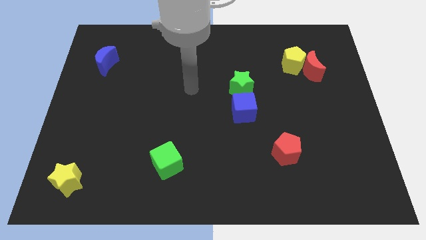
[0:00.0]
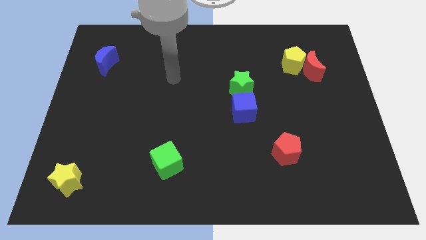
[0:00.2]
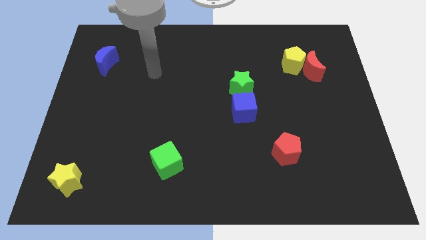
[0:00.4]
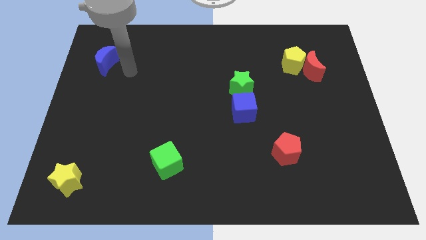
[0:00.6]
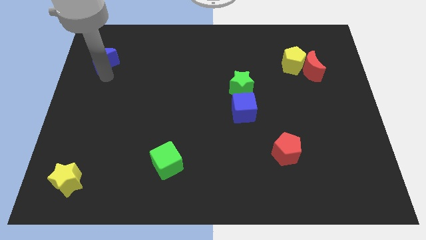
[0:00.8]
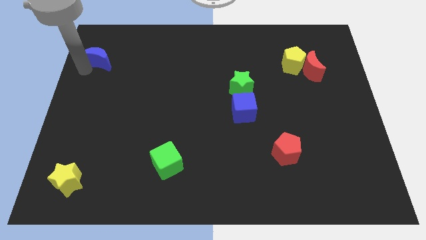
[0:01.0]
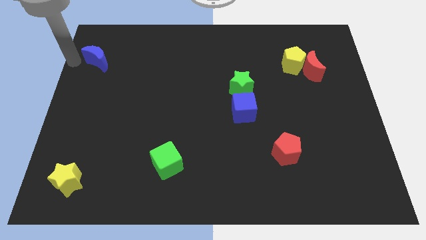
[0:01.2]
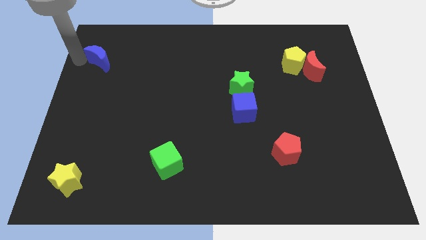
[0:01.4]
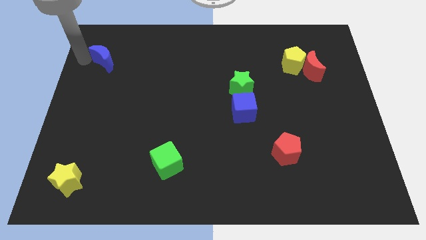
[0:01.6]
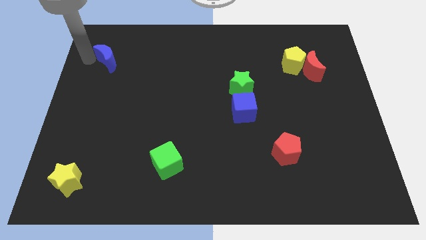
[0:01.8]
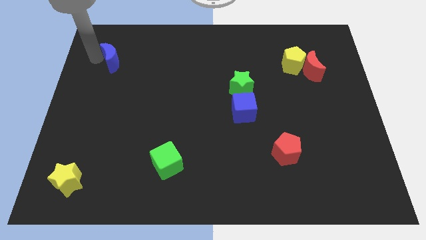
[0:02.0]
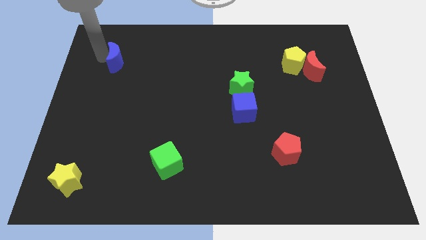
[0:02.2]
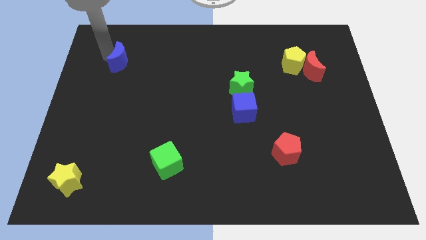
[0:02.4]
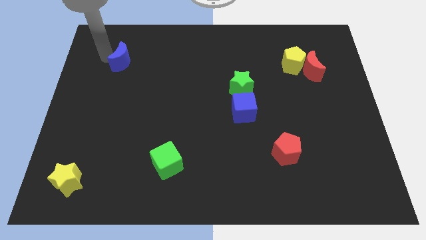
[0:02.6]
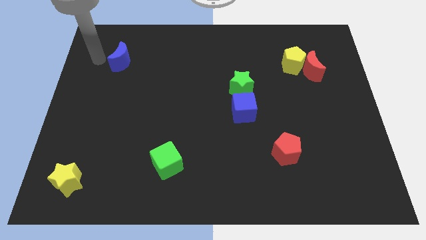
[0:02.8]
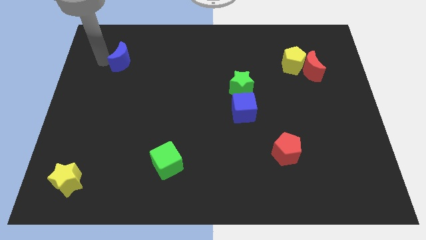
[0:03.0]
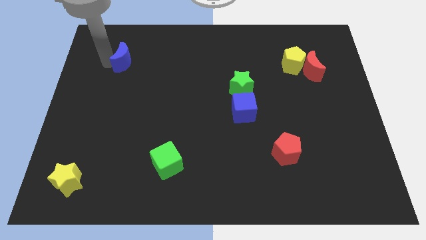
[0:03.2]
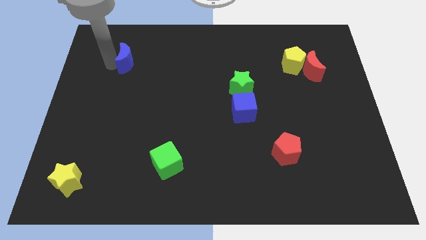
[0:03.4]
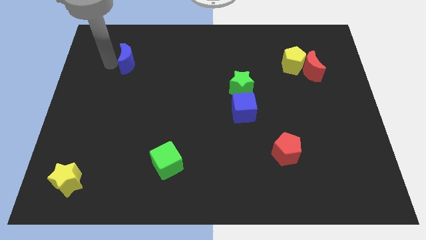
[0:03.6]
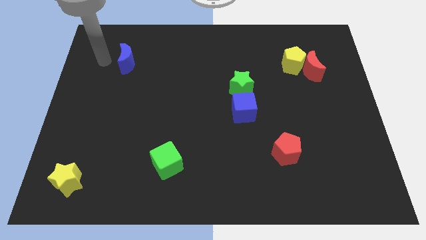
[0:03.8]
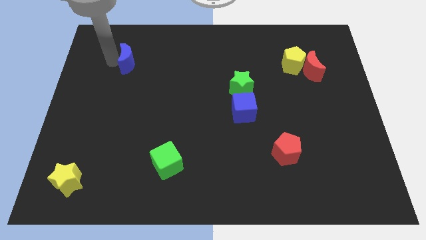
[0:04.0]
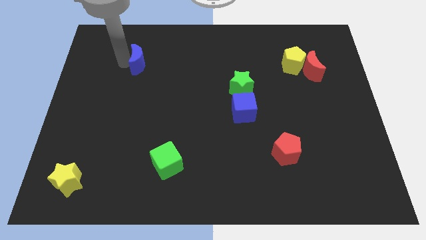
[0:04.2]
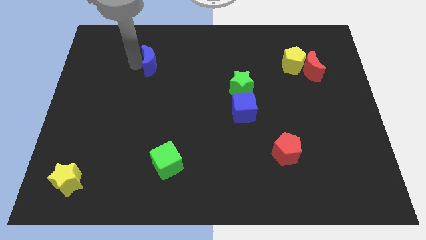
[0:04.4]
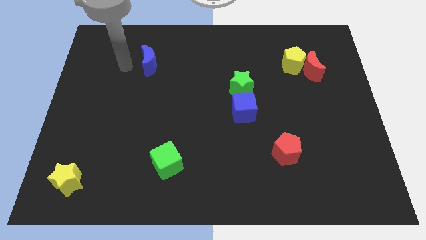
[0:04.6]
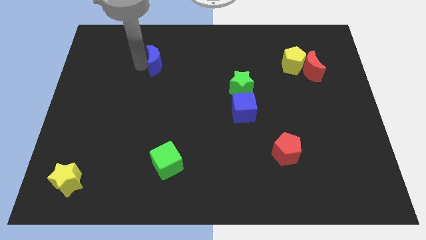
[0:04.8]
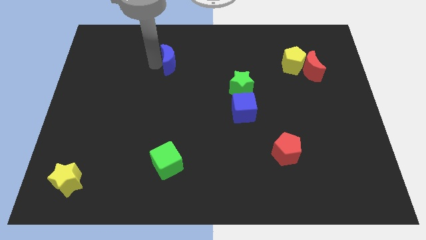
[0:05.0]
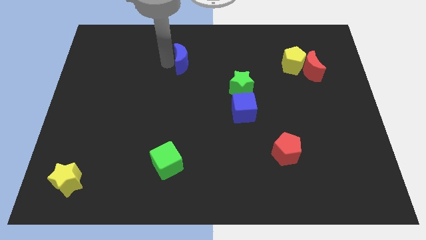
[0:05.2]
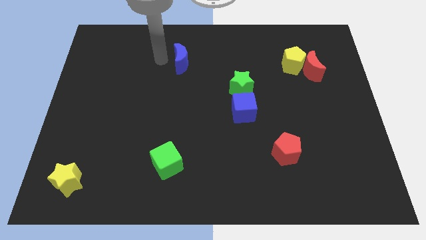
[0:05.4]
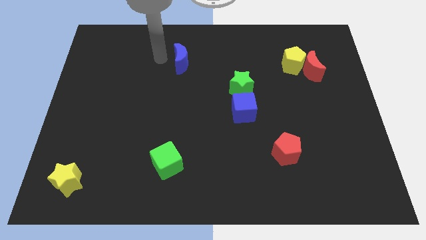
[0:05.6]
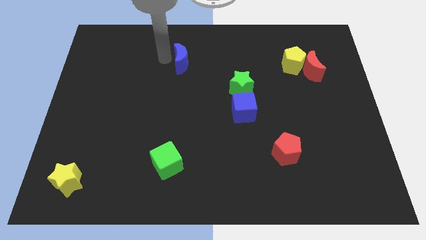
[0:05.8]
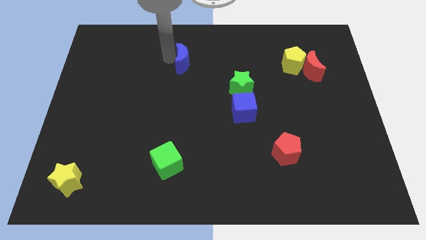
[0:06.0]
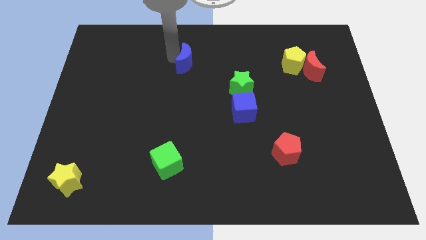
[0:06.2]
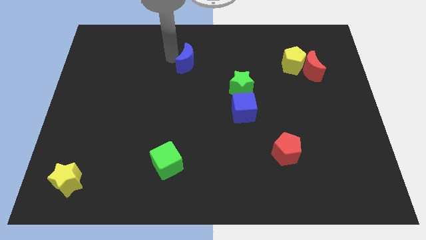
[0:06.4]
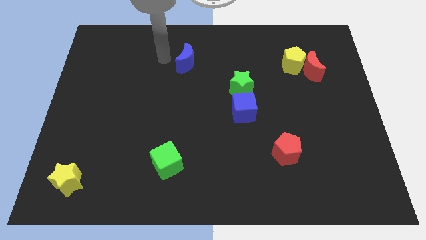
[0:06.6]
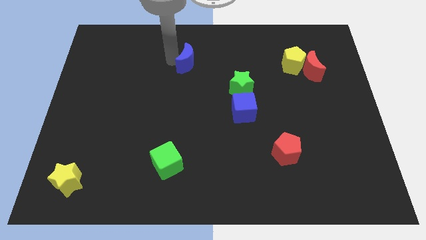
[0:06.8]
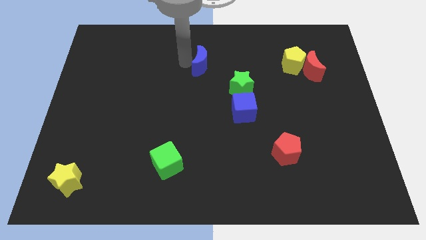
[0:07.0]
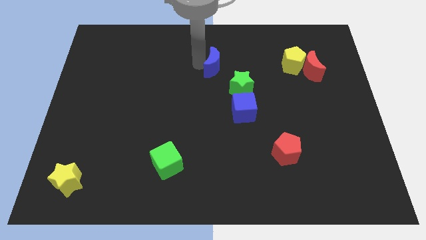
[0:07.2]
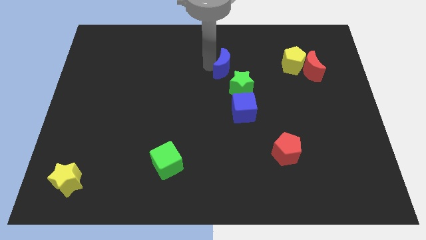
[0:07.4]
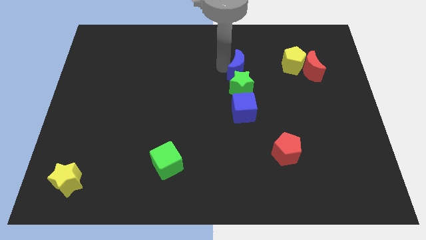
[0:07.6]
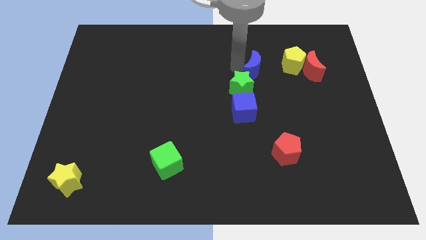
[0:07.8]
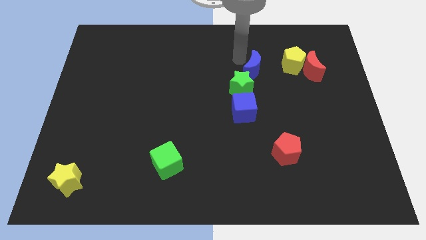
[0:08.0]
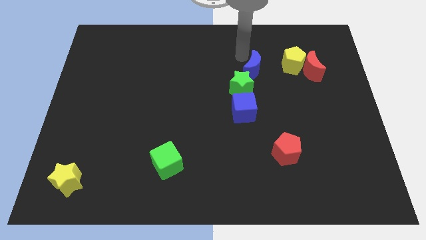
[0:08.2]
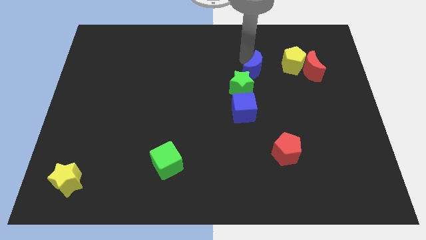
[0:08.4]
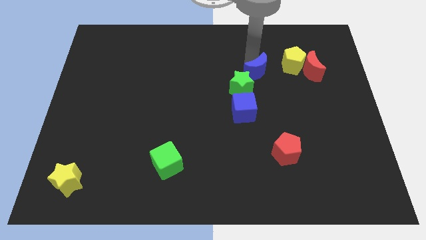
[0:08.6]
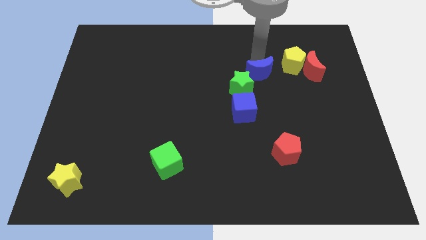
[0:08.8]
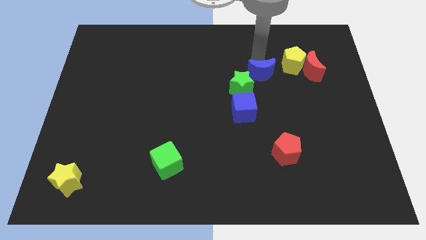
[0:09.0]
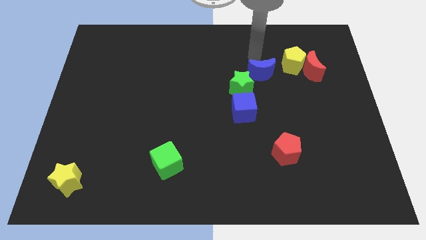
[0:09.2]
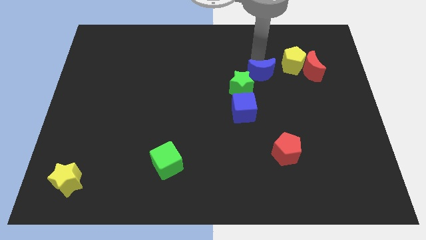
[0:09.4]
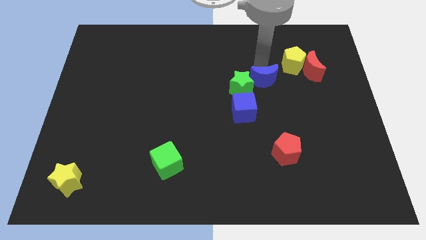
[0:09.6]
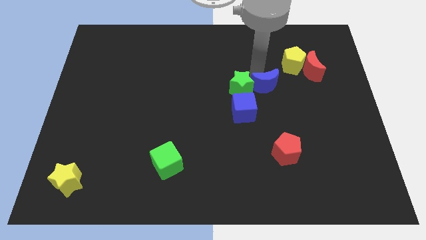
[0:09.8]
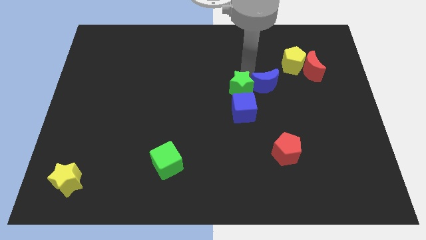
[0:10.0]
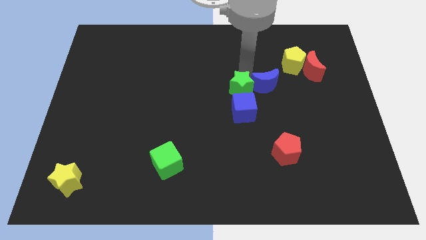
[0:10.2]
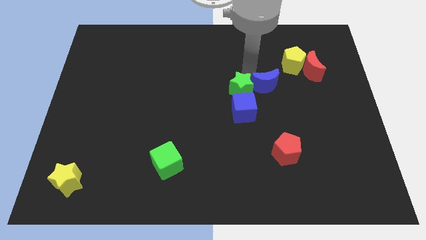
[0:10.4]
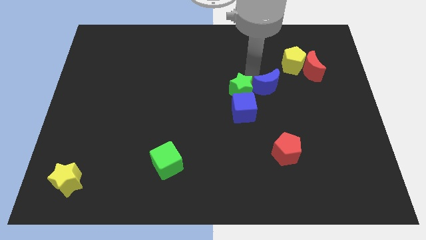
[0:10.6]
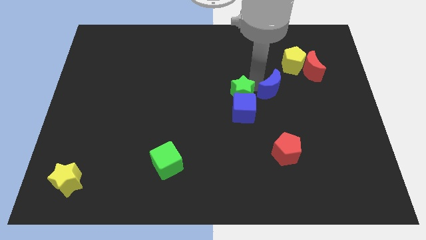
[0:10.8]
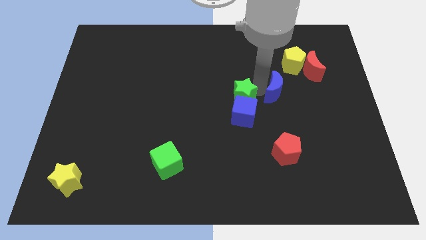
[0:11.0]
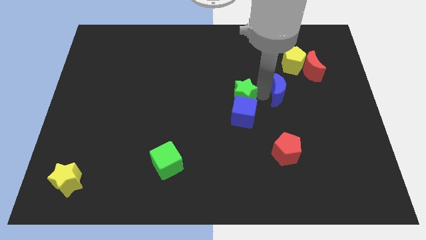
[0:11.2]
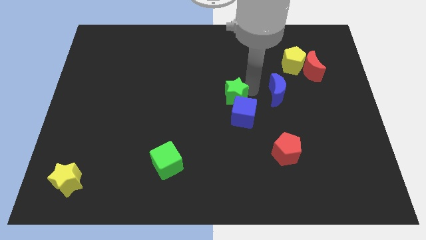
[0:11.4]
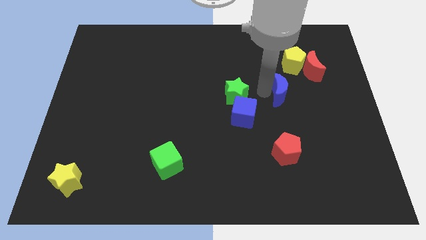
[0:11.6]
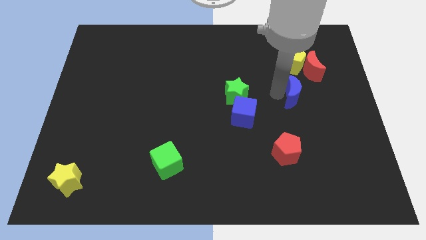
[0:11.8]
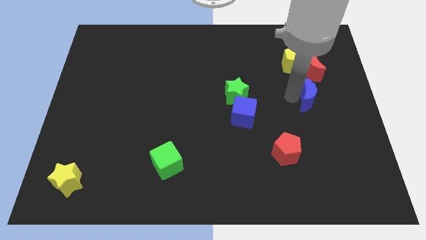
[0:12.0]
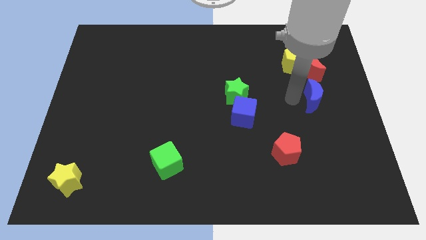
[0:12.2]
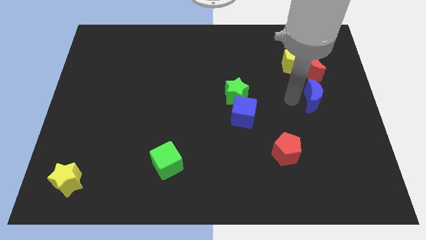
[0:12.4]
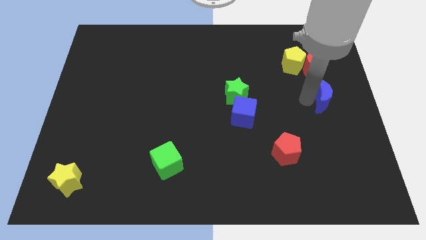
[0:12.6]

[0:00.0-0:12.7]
slide the blue moon to the right side
